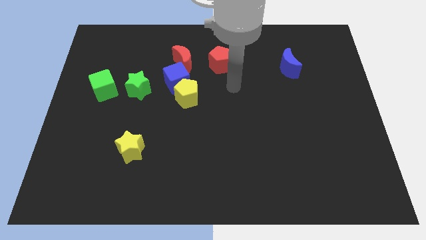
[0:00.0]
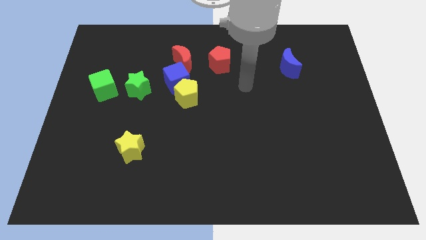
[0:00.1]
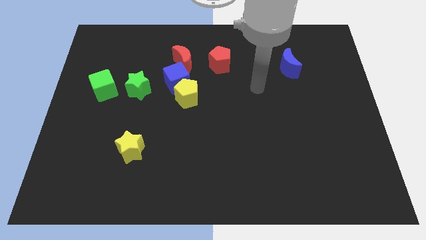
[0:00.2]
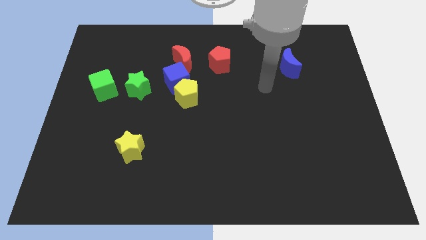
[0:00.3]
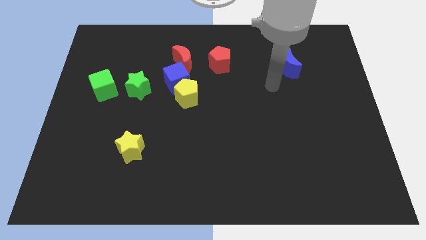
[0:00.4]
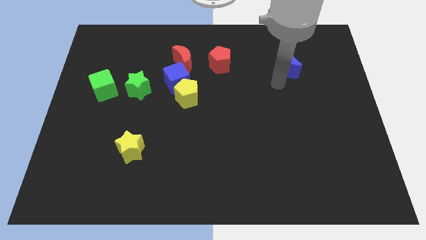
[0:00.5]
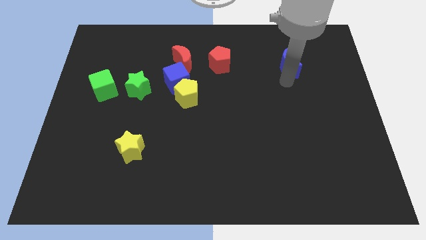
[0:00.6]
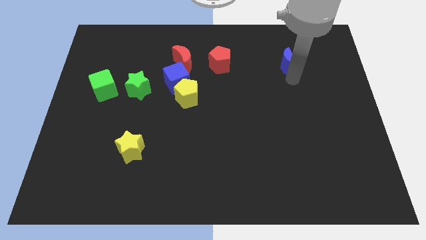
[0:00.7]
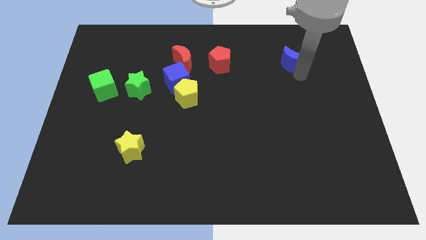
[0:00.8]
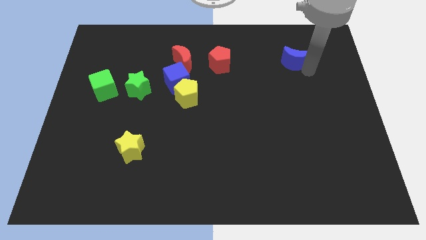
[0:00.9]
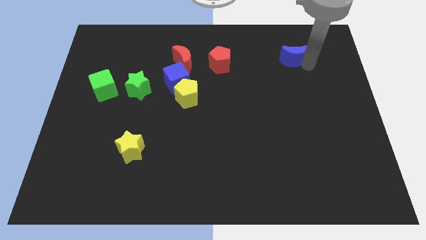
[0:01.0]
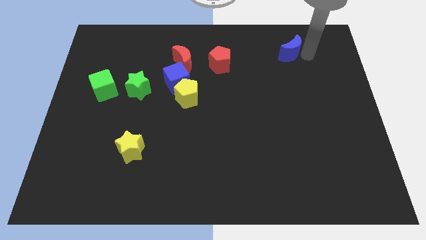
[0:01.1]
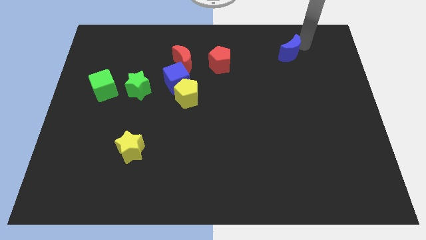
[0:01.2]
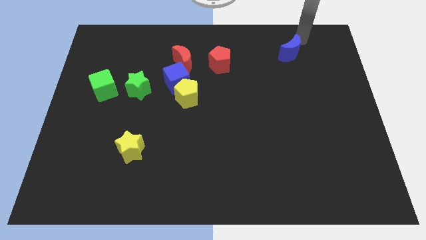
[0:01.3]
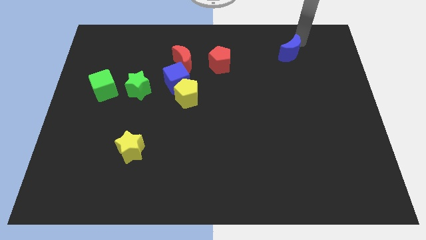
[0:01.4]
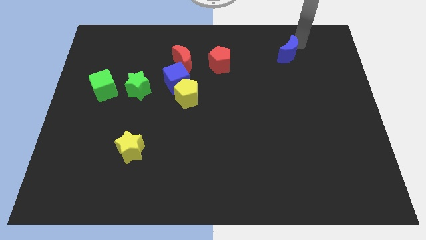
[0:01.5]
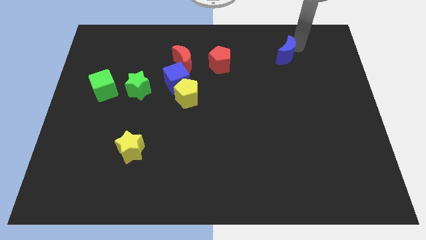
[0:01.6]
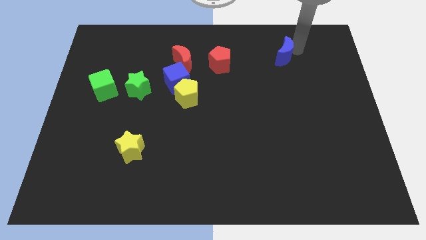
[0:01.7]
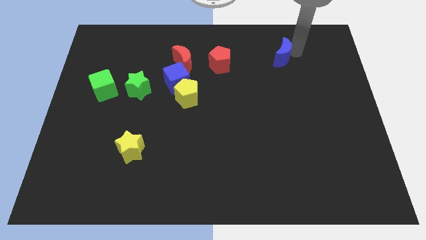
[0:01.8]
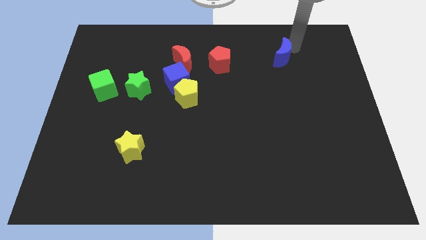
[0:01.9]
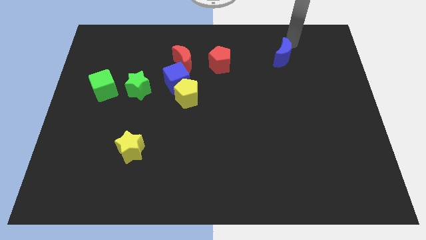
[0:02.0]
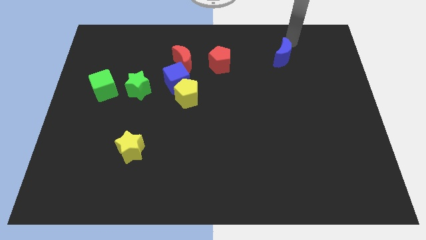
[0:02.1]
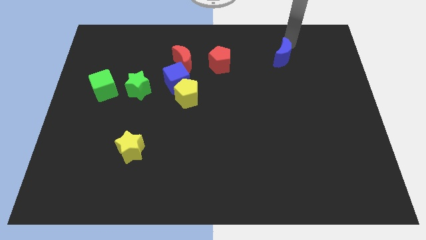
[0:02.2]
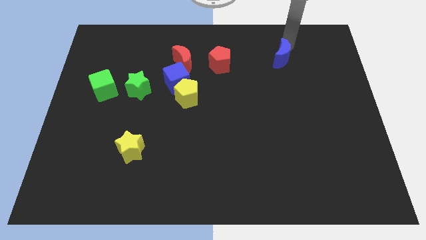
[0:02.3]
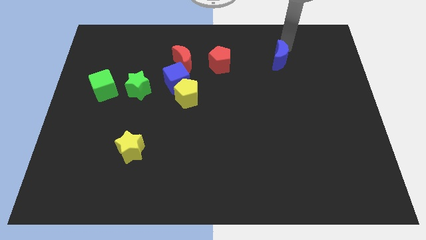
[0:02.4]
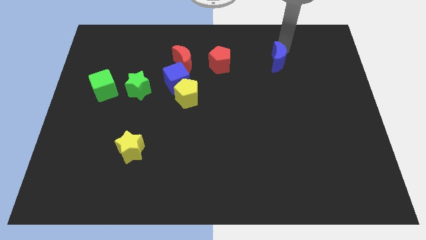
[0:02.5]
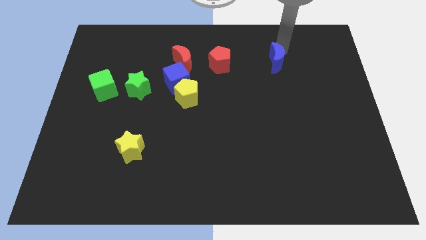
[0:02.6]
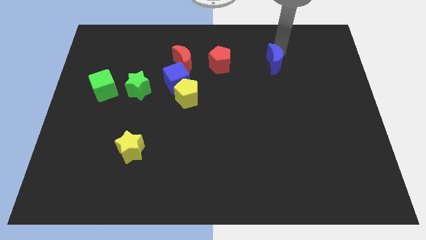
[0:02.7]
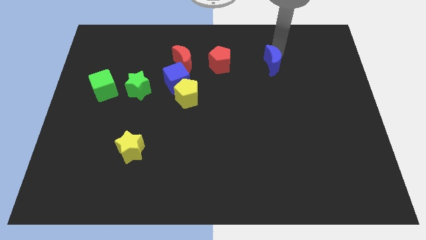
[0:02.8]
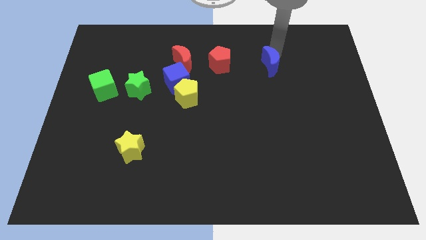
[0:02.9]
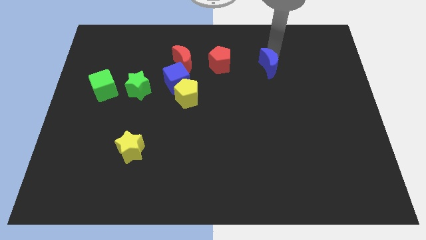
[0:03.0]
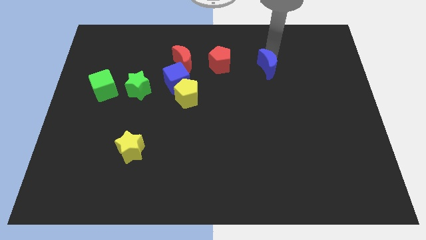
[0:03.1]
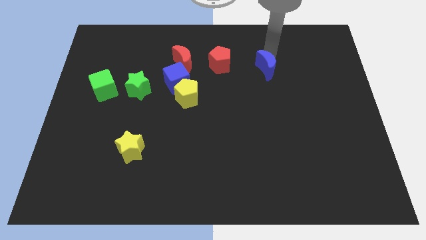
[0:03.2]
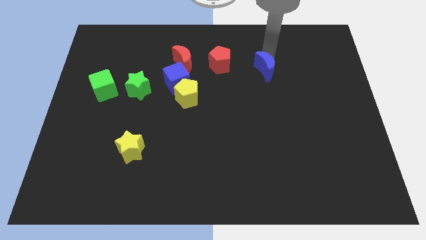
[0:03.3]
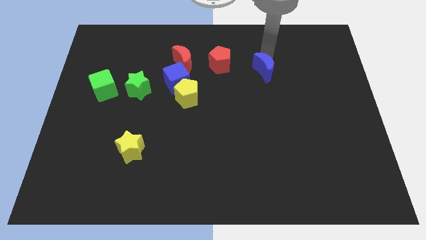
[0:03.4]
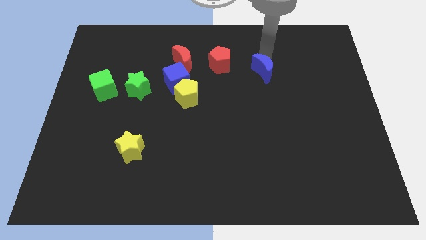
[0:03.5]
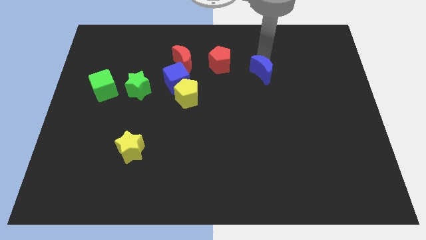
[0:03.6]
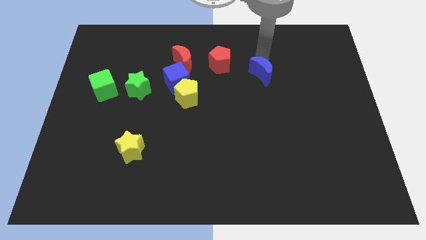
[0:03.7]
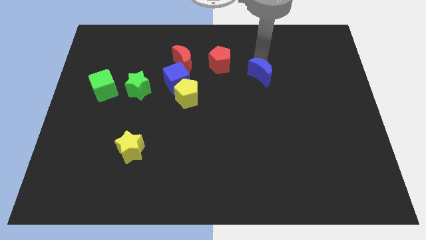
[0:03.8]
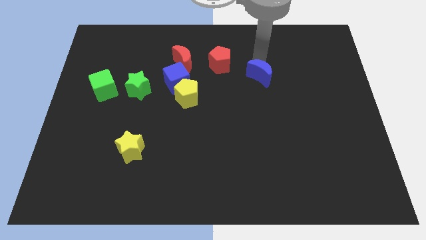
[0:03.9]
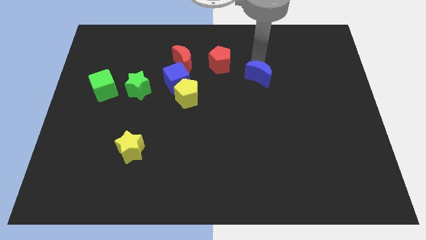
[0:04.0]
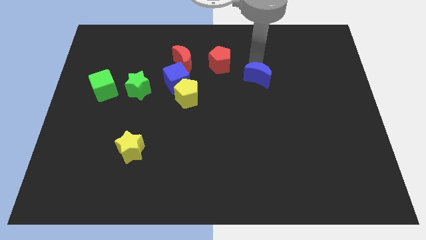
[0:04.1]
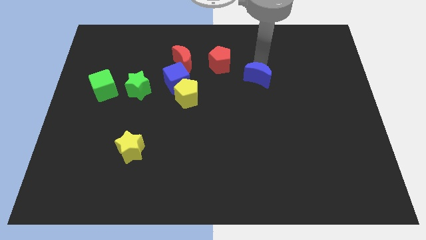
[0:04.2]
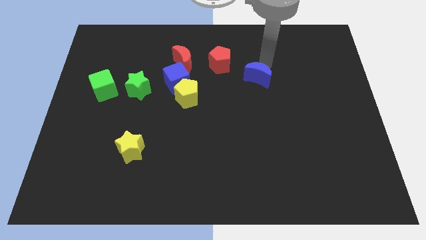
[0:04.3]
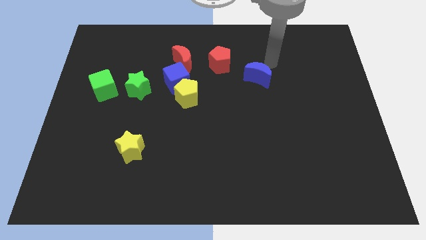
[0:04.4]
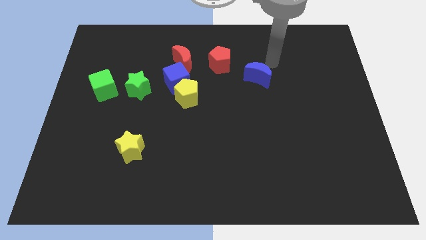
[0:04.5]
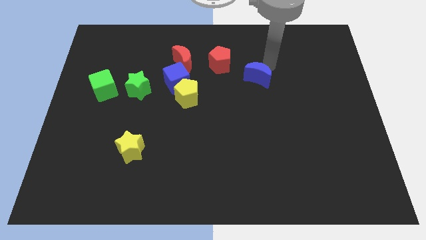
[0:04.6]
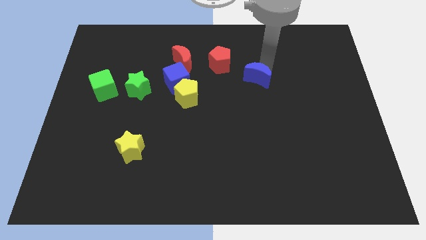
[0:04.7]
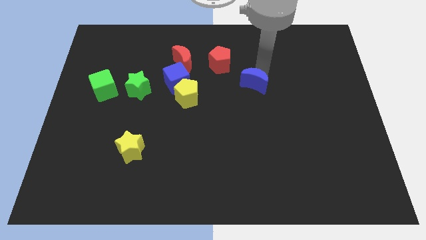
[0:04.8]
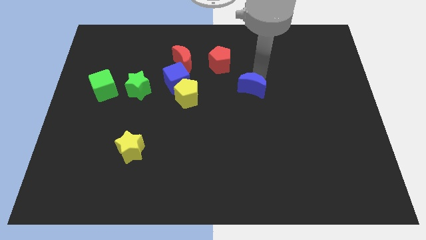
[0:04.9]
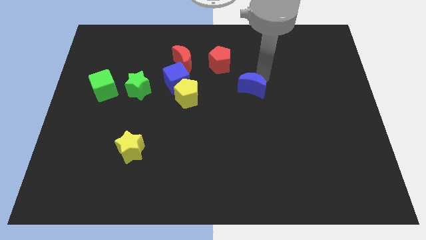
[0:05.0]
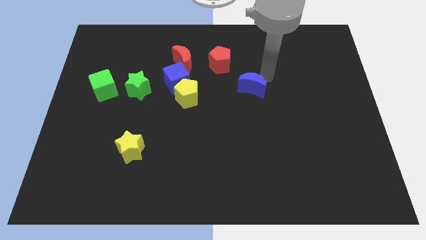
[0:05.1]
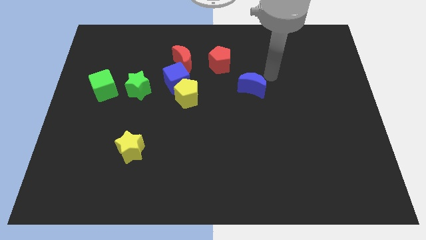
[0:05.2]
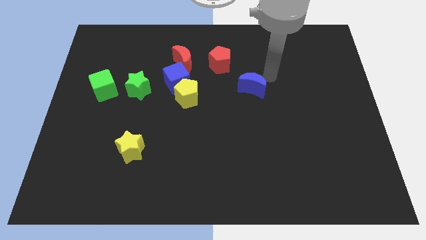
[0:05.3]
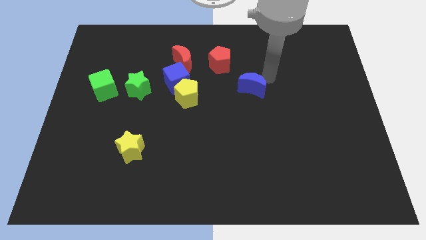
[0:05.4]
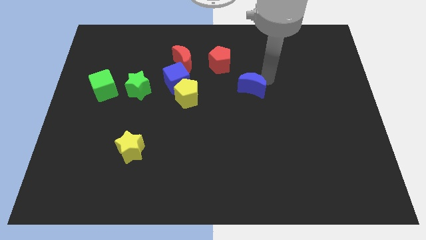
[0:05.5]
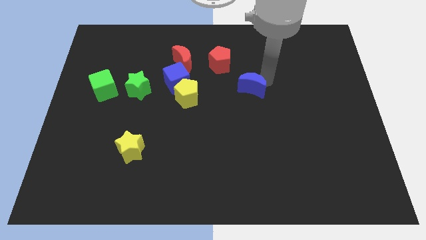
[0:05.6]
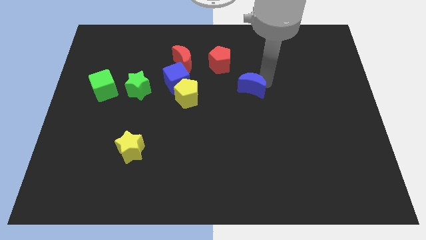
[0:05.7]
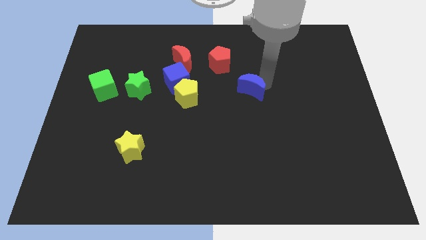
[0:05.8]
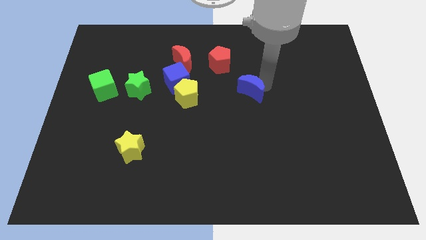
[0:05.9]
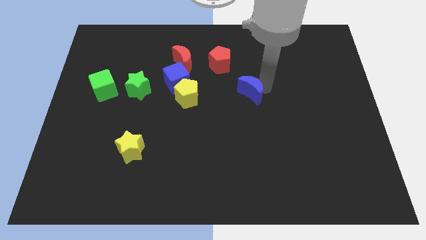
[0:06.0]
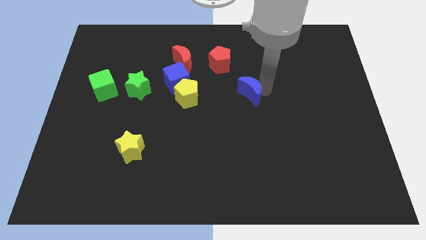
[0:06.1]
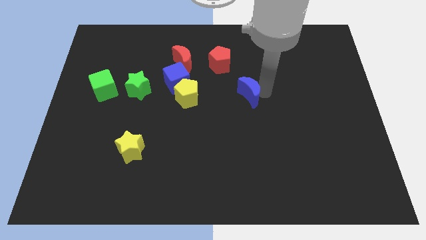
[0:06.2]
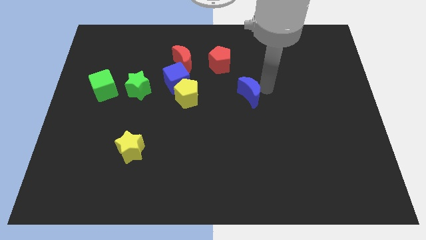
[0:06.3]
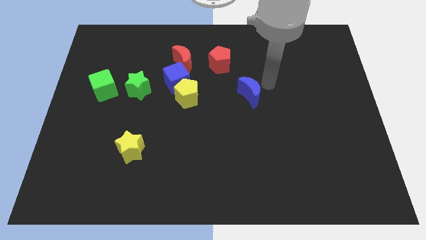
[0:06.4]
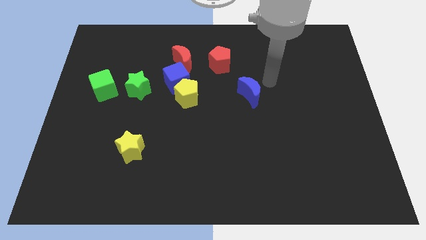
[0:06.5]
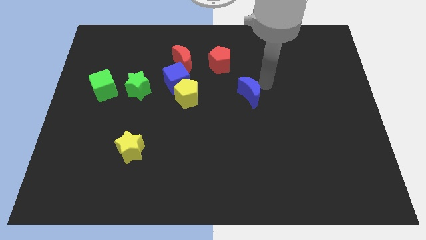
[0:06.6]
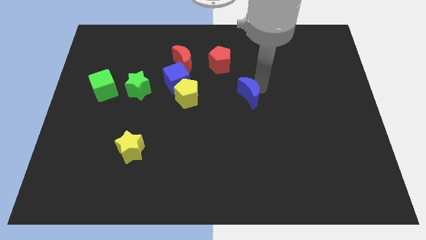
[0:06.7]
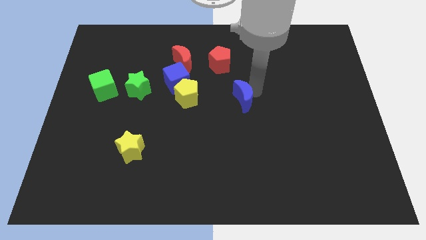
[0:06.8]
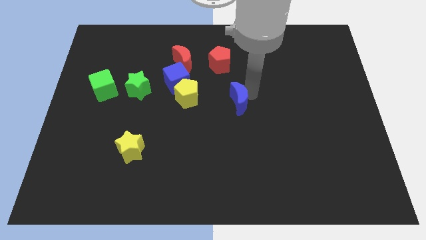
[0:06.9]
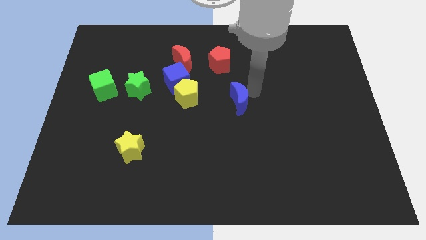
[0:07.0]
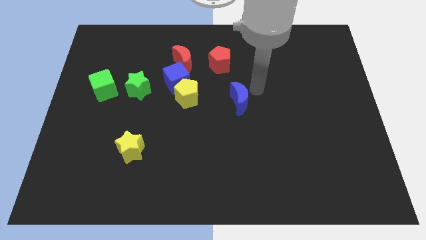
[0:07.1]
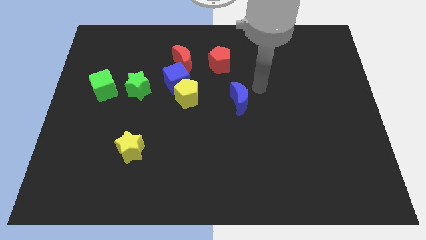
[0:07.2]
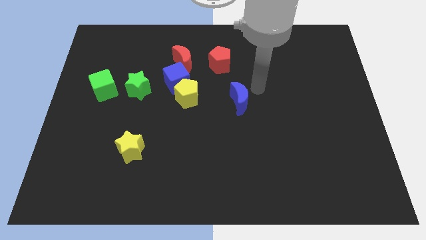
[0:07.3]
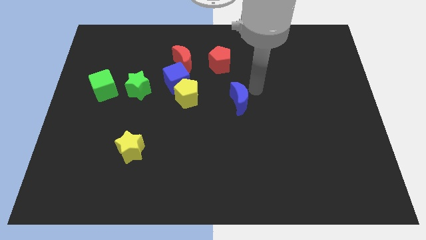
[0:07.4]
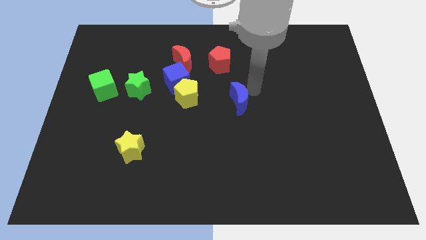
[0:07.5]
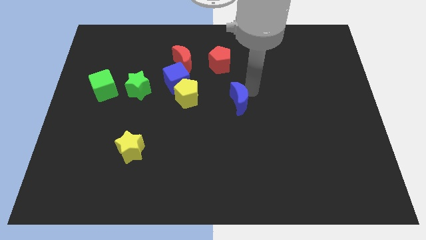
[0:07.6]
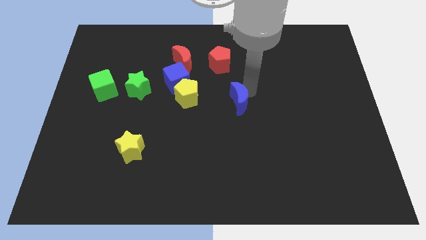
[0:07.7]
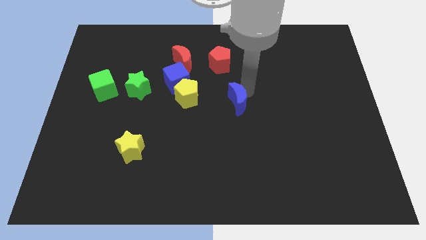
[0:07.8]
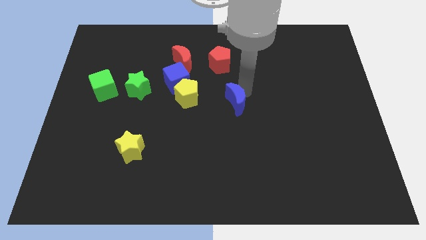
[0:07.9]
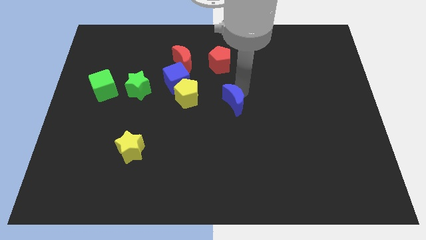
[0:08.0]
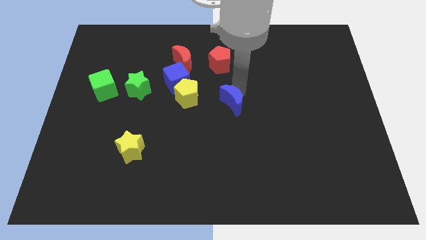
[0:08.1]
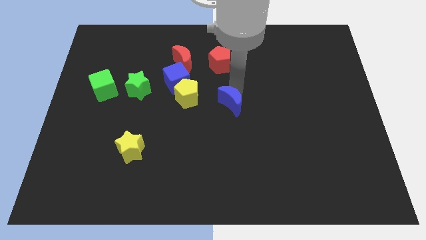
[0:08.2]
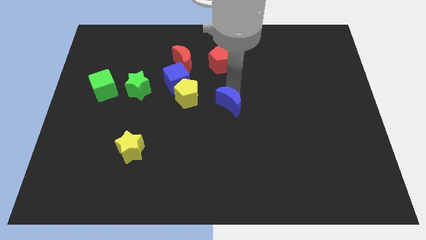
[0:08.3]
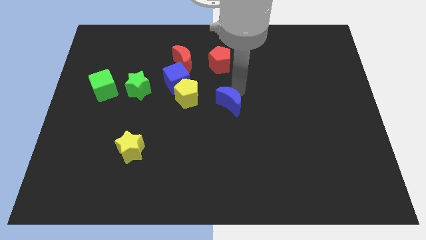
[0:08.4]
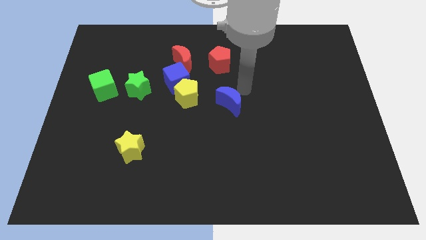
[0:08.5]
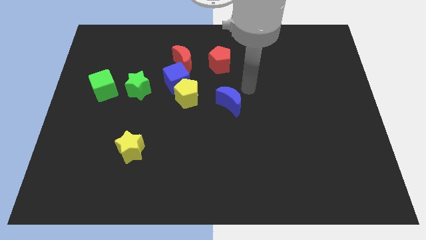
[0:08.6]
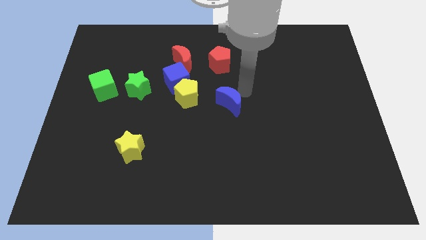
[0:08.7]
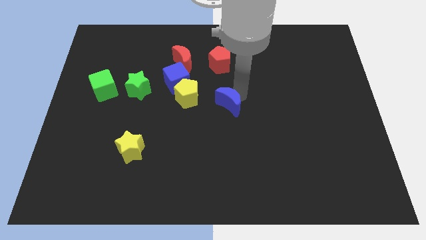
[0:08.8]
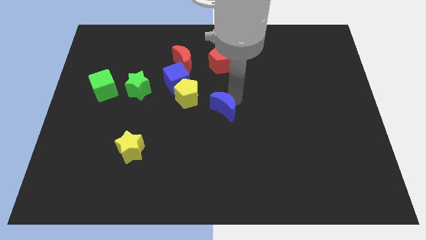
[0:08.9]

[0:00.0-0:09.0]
move the blue moon downwards and then left
